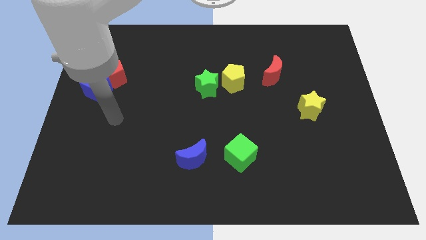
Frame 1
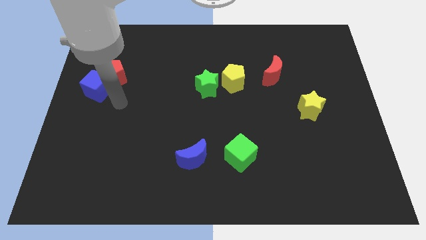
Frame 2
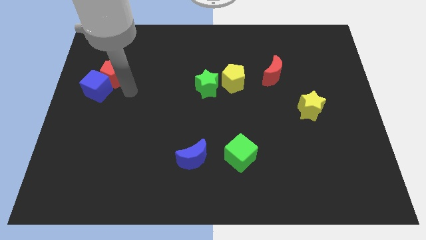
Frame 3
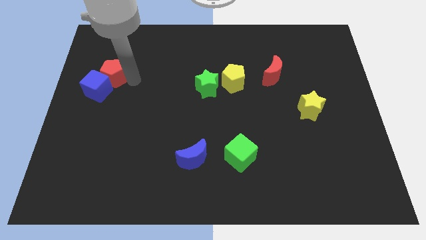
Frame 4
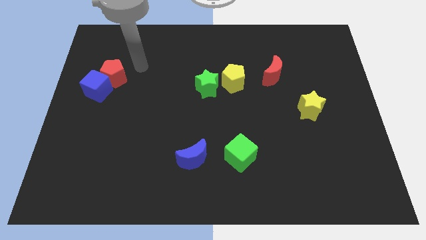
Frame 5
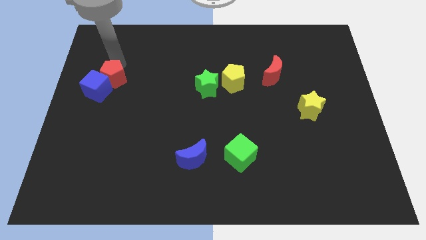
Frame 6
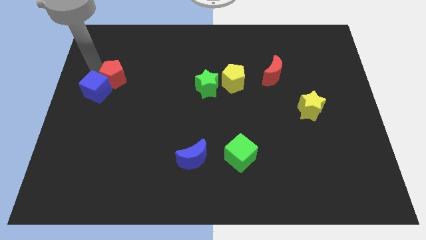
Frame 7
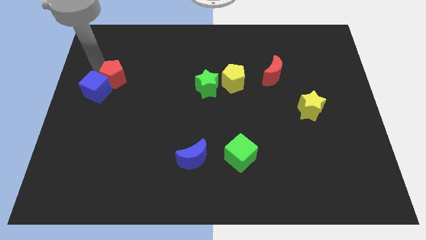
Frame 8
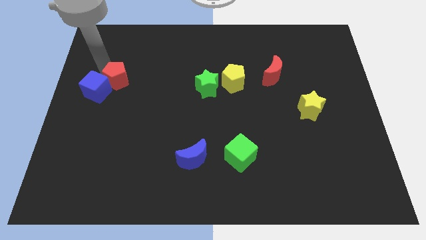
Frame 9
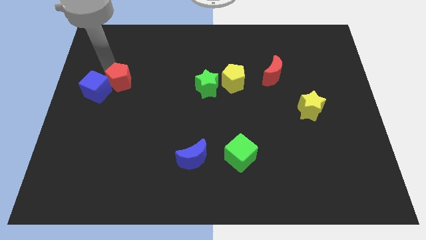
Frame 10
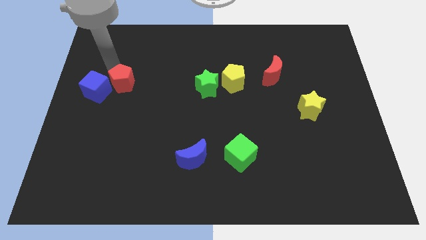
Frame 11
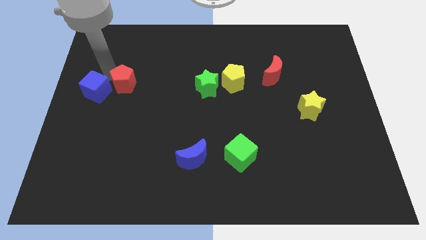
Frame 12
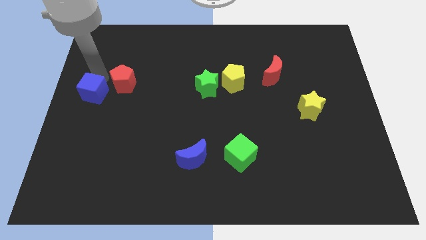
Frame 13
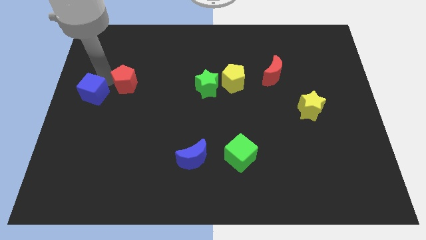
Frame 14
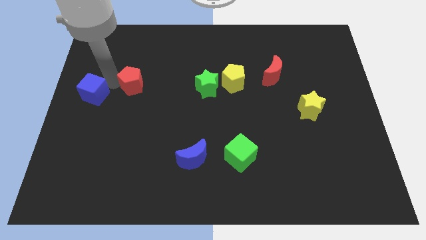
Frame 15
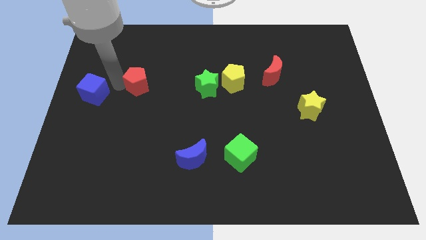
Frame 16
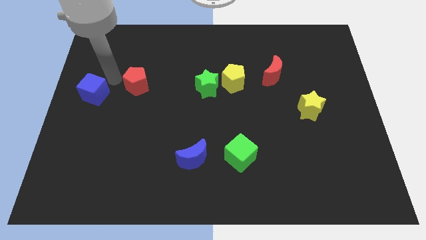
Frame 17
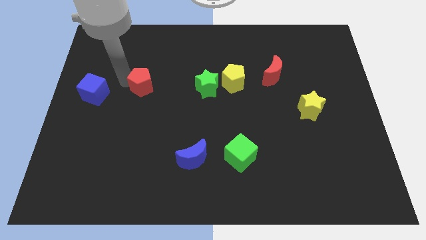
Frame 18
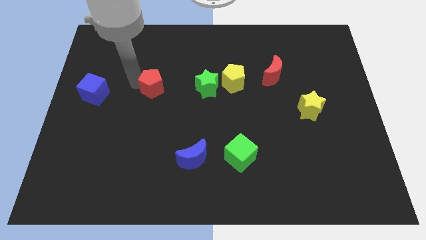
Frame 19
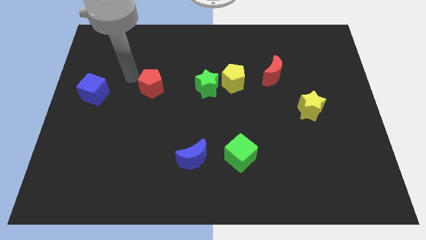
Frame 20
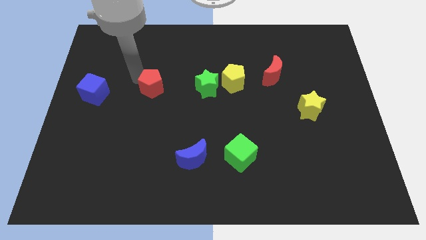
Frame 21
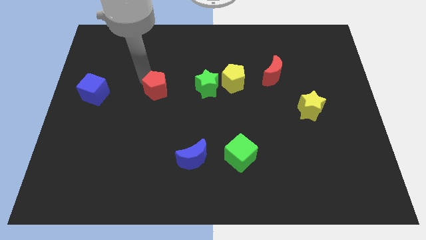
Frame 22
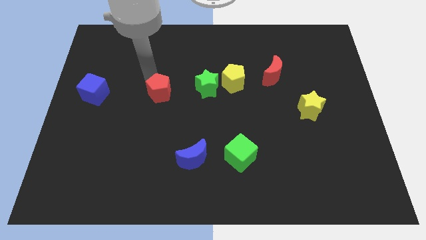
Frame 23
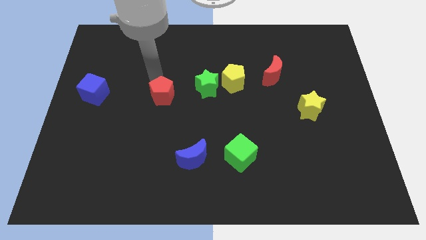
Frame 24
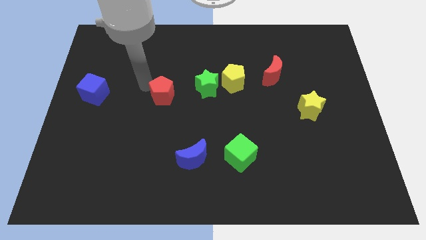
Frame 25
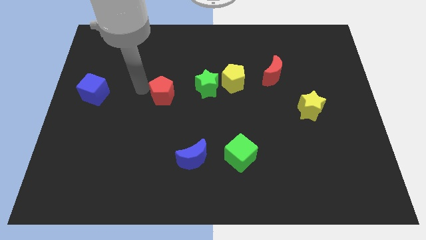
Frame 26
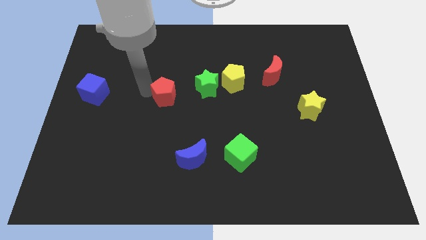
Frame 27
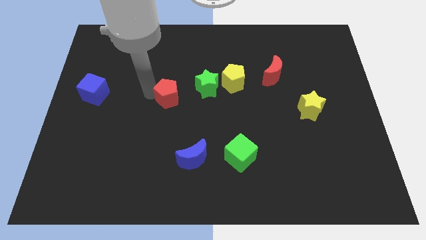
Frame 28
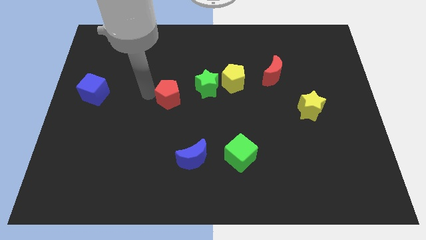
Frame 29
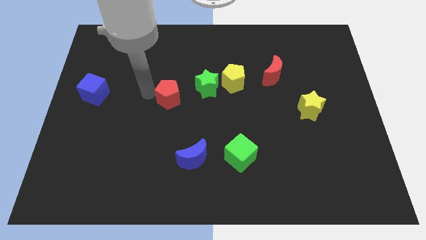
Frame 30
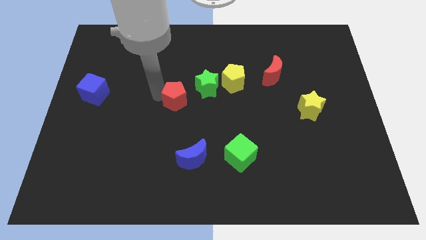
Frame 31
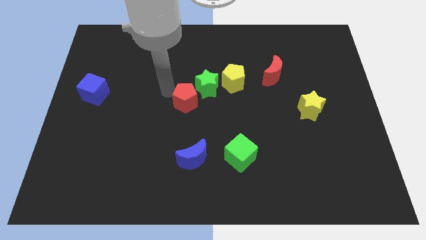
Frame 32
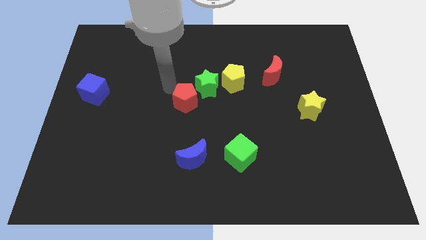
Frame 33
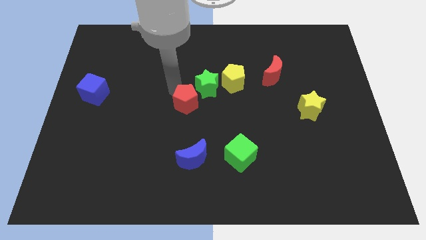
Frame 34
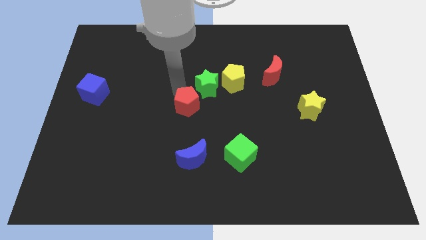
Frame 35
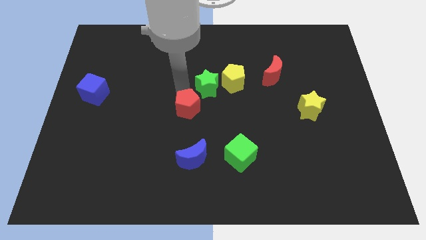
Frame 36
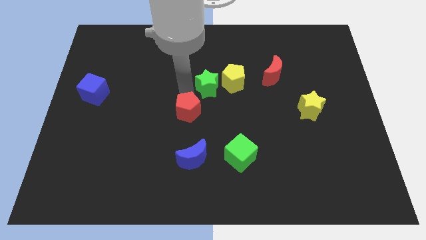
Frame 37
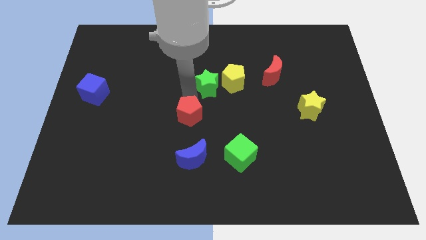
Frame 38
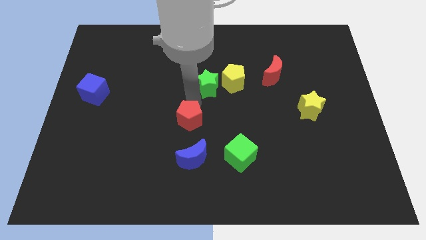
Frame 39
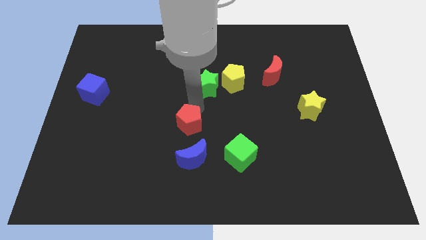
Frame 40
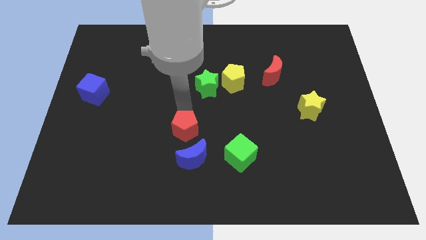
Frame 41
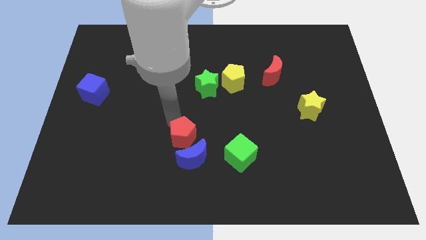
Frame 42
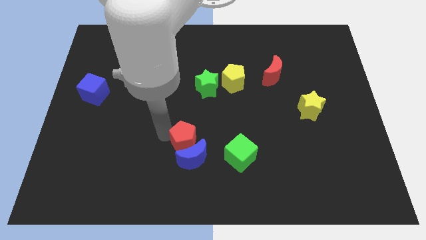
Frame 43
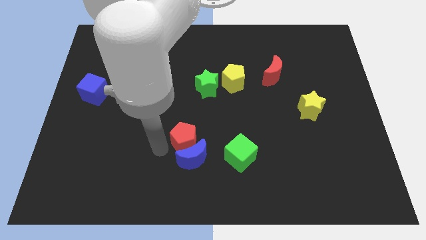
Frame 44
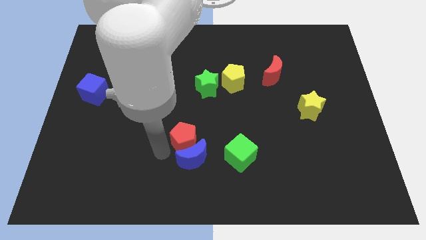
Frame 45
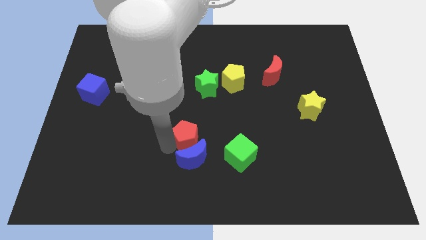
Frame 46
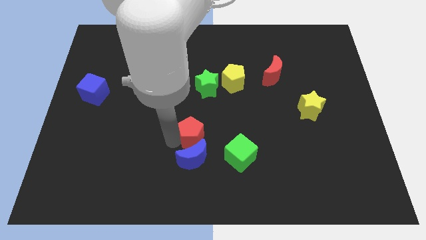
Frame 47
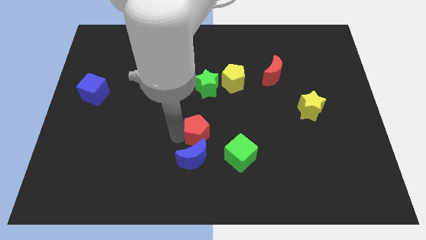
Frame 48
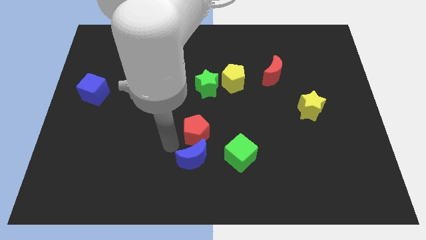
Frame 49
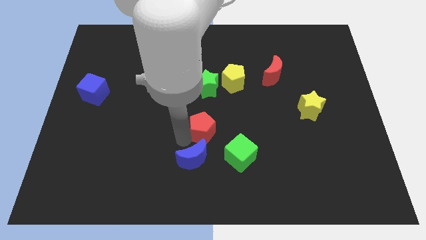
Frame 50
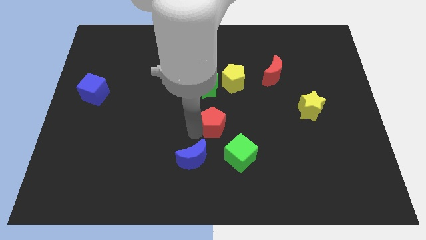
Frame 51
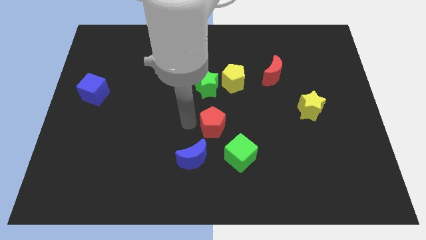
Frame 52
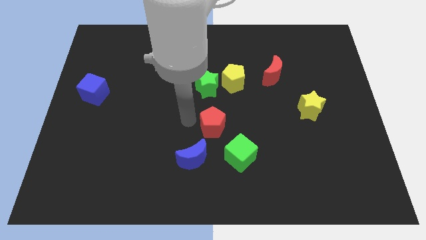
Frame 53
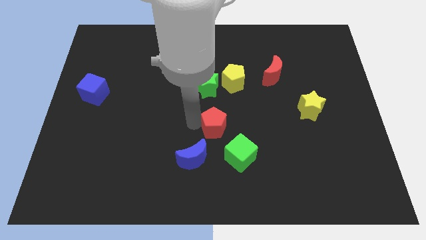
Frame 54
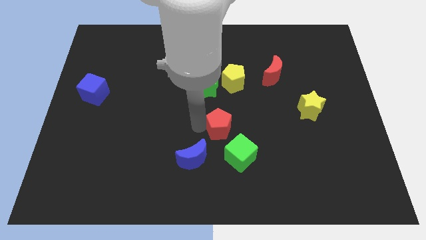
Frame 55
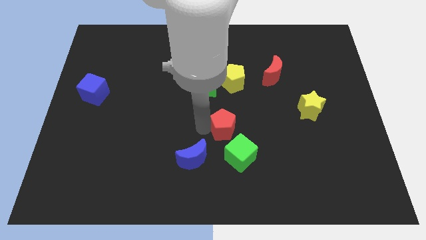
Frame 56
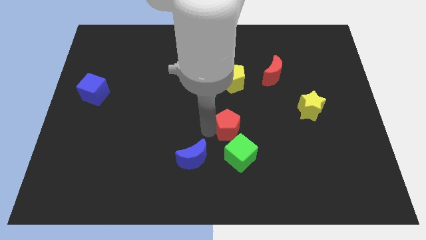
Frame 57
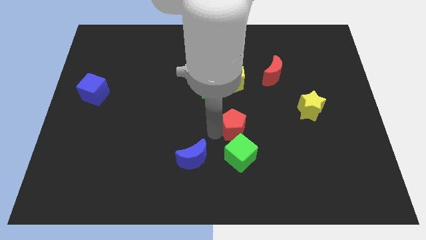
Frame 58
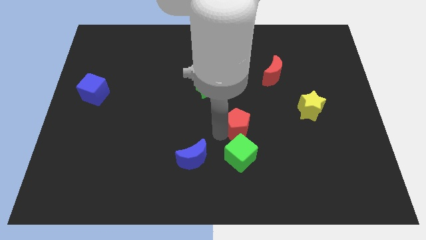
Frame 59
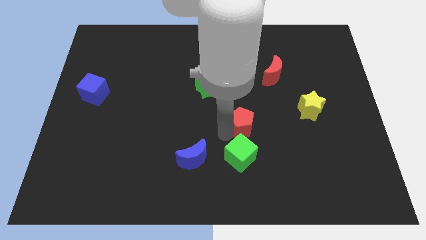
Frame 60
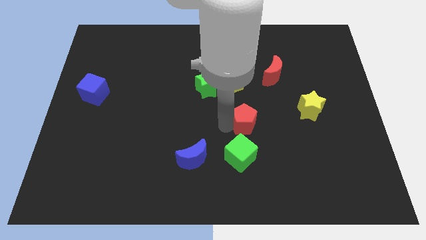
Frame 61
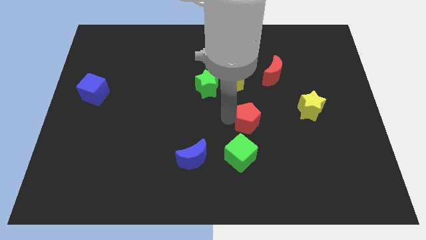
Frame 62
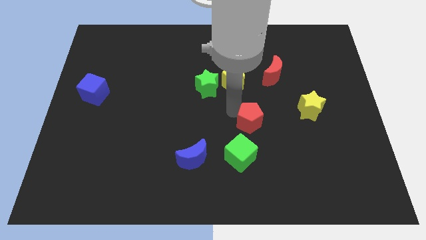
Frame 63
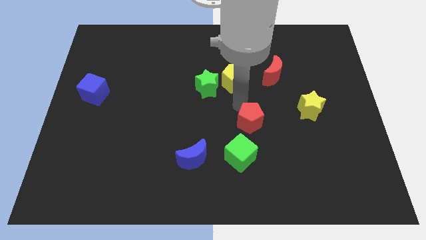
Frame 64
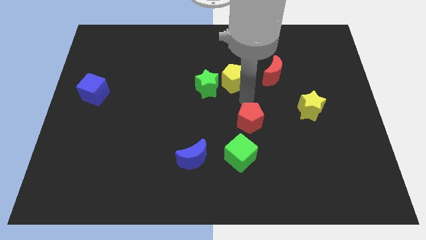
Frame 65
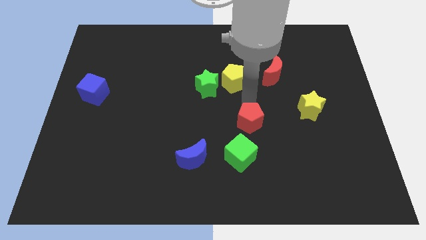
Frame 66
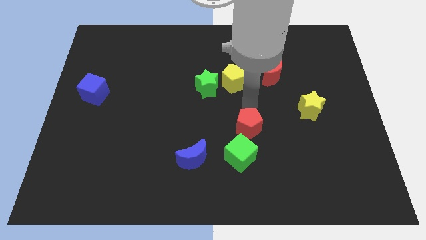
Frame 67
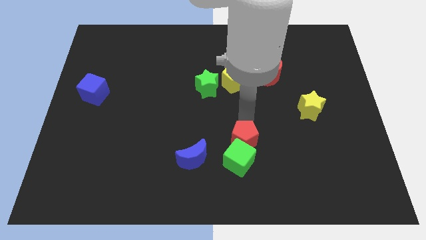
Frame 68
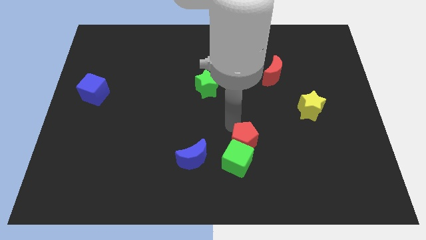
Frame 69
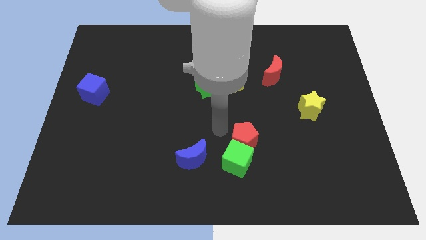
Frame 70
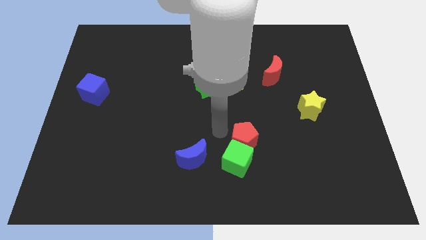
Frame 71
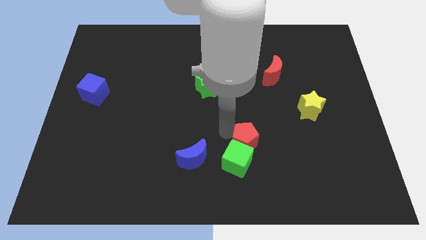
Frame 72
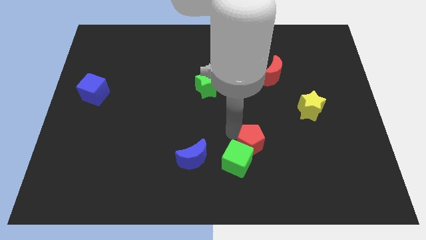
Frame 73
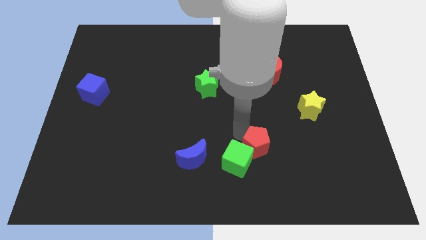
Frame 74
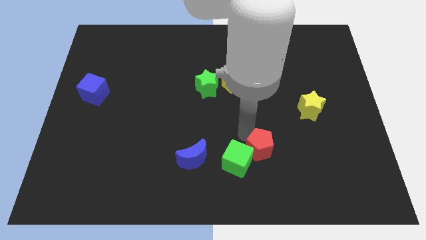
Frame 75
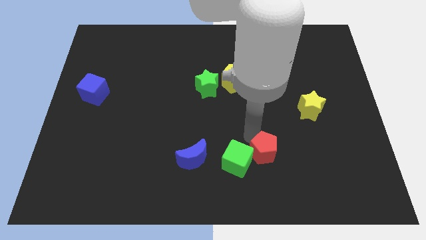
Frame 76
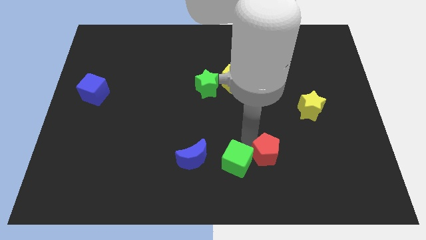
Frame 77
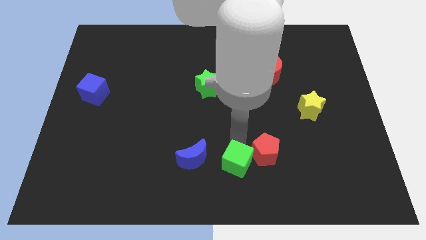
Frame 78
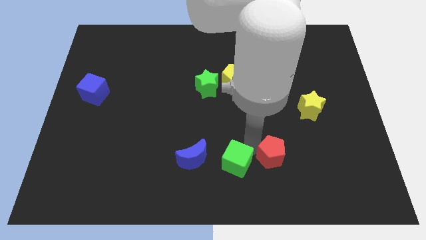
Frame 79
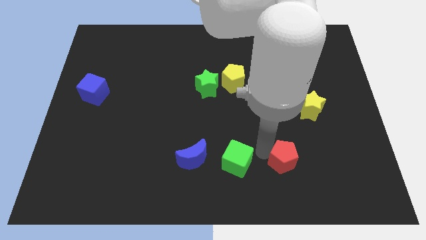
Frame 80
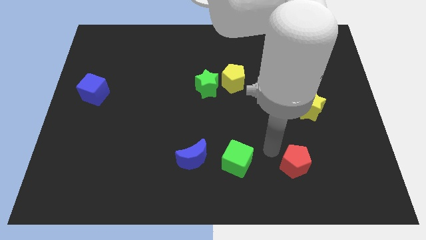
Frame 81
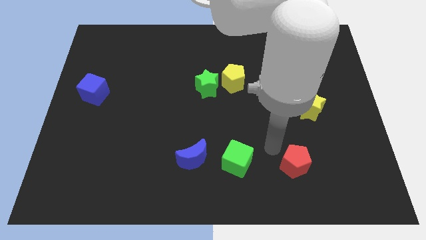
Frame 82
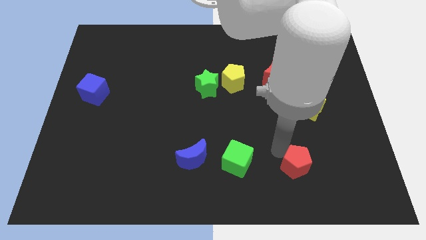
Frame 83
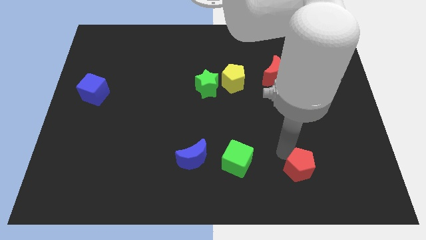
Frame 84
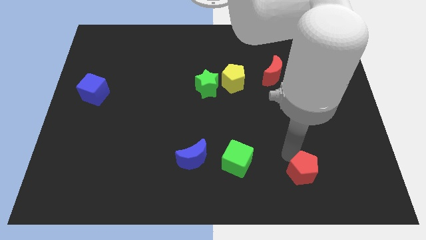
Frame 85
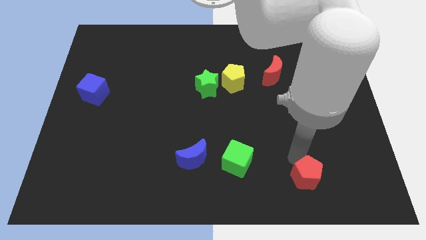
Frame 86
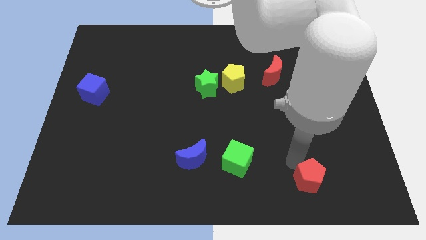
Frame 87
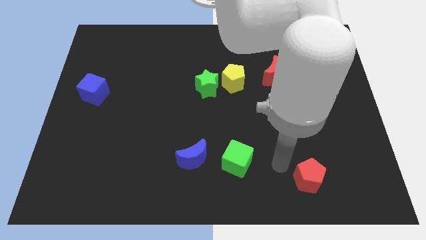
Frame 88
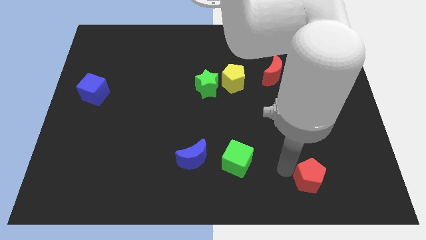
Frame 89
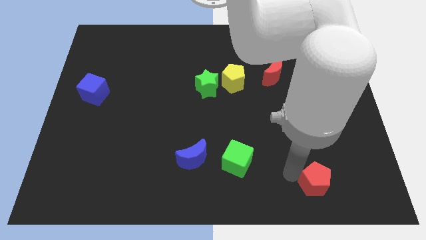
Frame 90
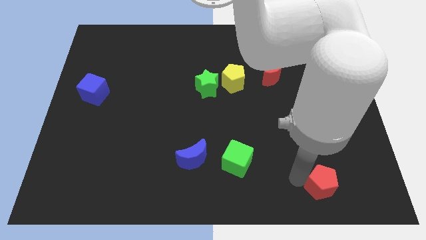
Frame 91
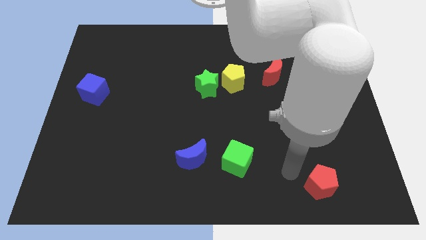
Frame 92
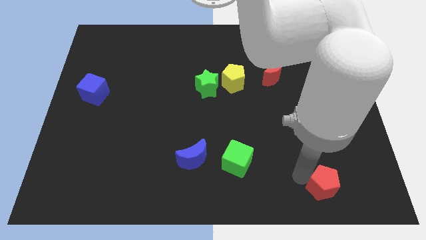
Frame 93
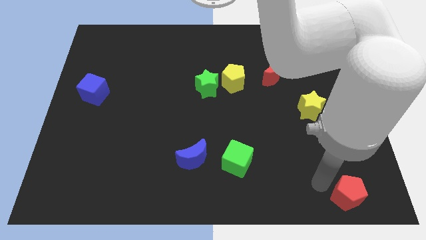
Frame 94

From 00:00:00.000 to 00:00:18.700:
push the red pentagon to the bottom right
